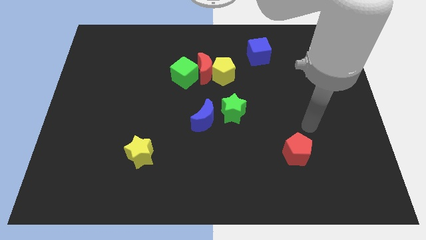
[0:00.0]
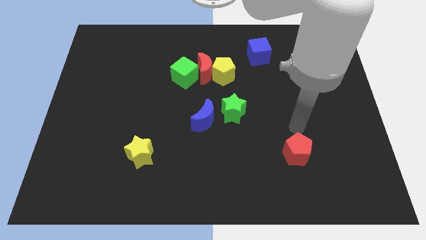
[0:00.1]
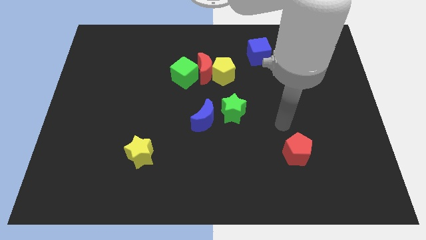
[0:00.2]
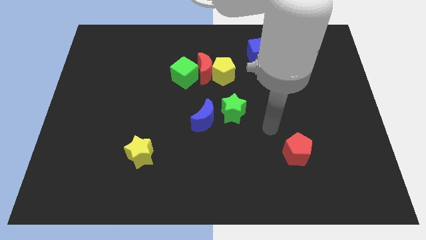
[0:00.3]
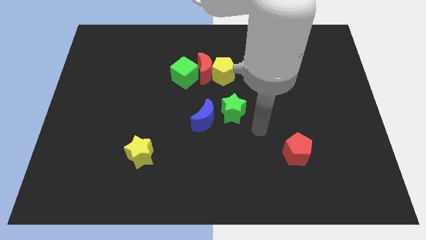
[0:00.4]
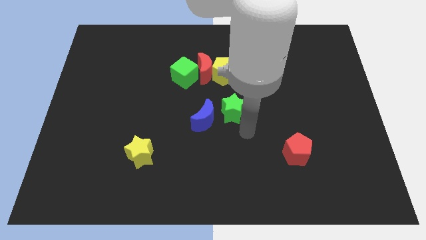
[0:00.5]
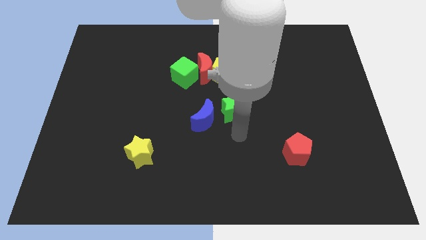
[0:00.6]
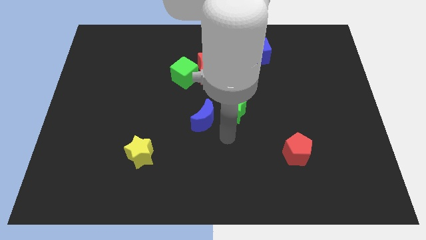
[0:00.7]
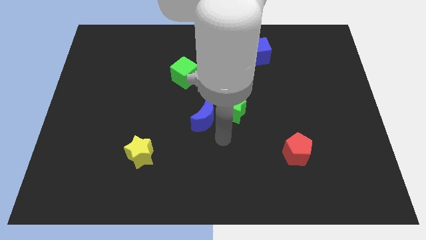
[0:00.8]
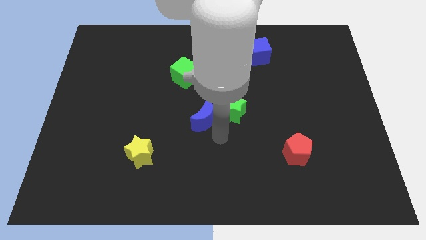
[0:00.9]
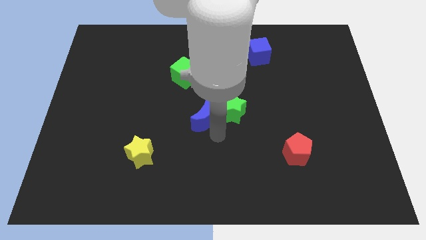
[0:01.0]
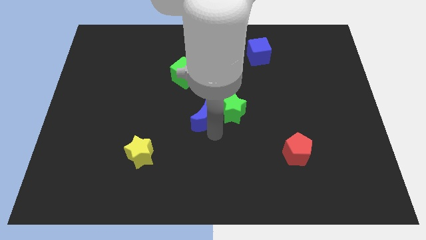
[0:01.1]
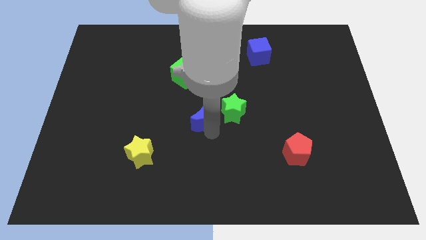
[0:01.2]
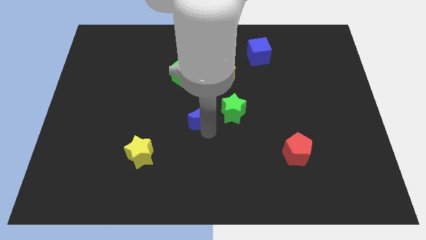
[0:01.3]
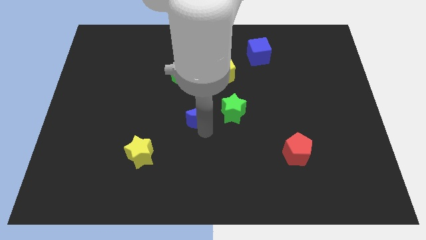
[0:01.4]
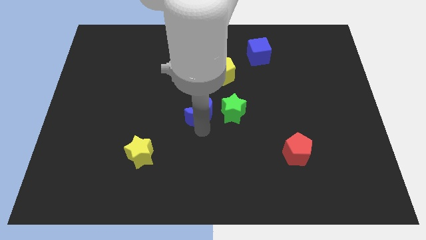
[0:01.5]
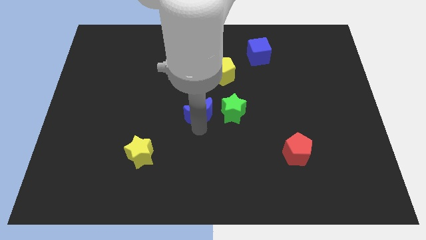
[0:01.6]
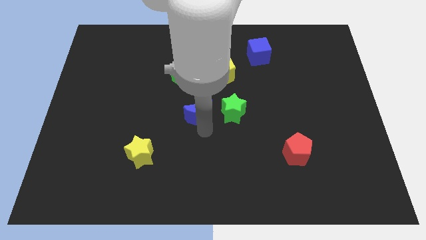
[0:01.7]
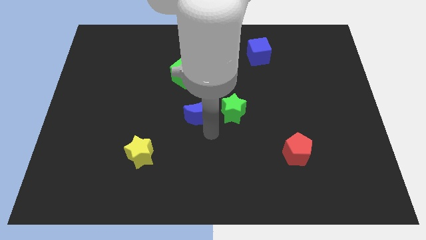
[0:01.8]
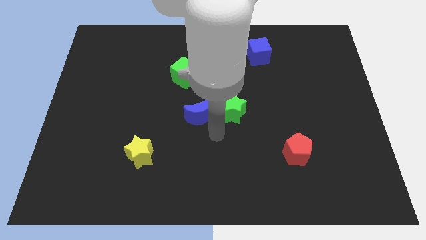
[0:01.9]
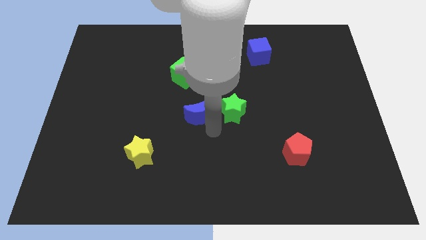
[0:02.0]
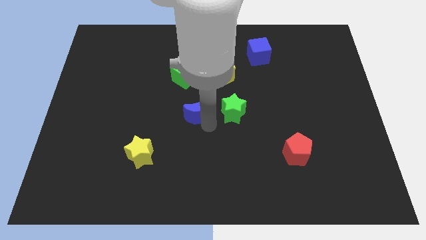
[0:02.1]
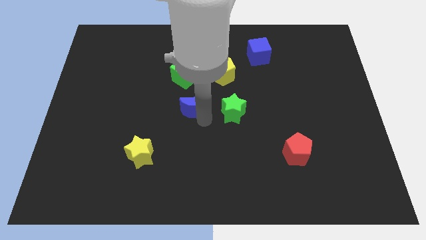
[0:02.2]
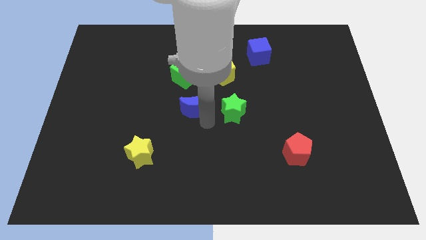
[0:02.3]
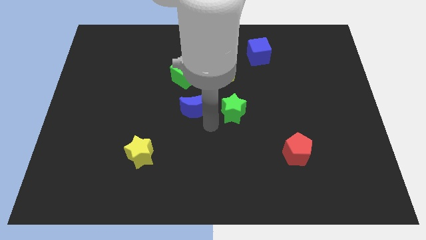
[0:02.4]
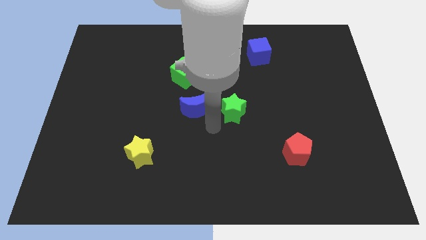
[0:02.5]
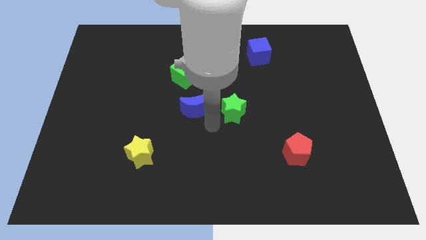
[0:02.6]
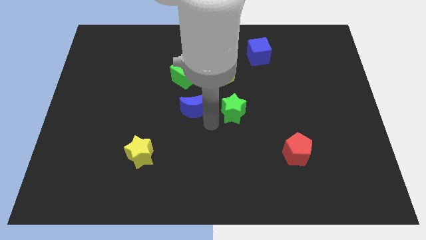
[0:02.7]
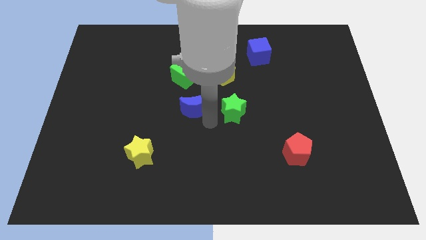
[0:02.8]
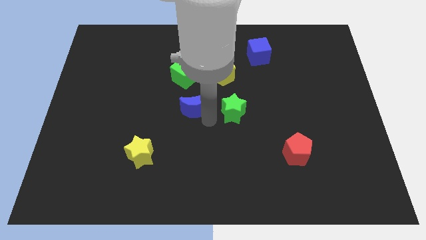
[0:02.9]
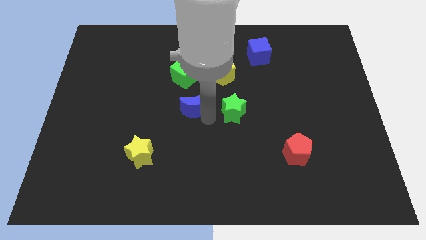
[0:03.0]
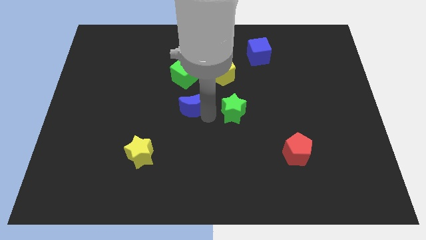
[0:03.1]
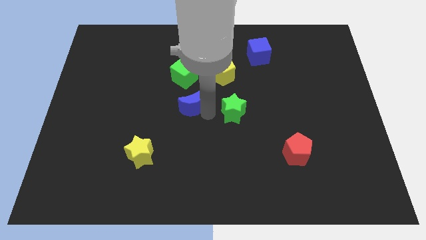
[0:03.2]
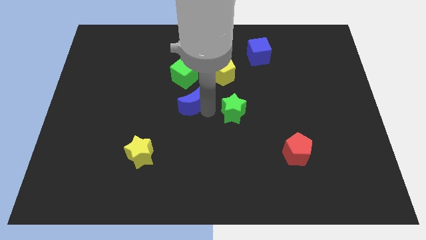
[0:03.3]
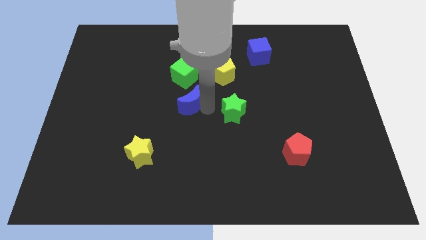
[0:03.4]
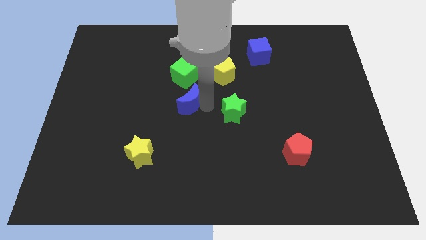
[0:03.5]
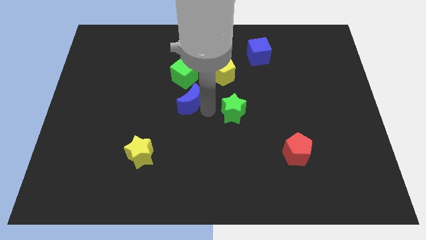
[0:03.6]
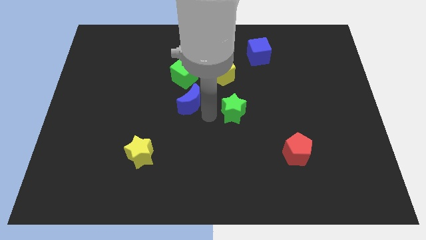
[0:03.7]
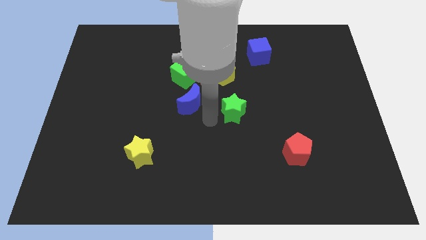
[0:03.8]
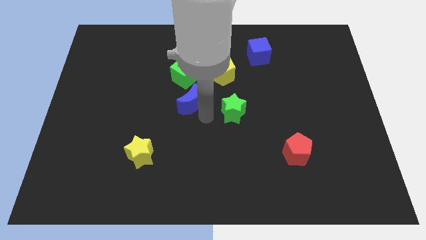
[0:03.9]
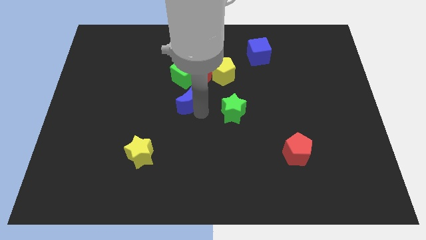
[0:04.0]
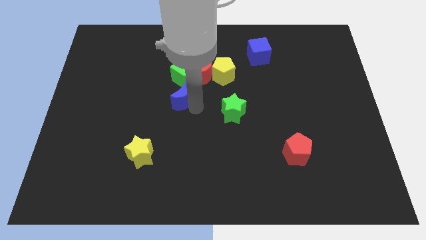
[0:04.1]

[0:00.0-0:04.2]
push the blue moon slightly upwards and then left

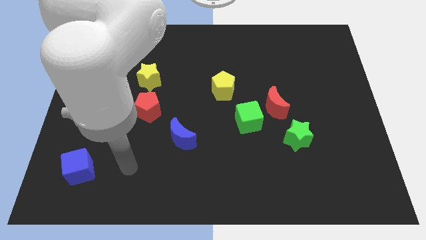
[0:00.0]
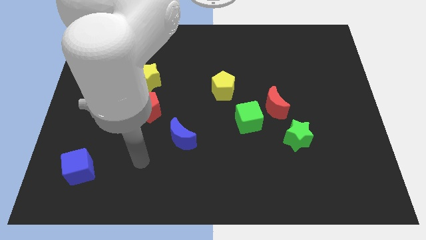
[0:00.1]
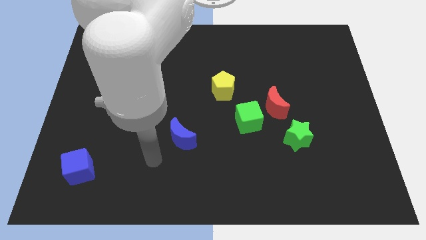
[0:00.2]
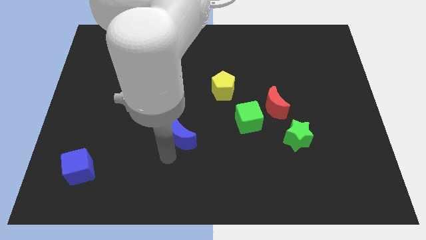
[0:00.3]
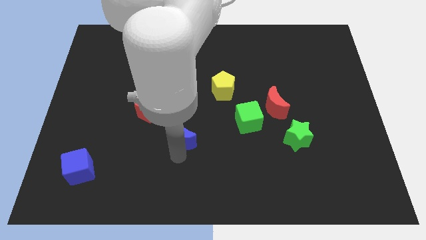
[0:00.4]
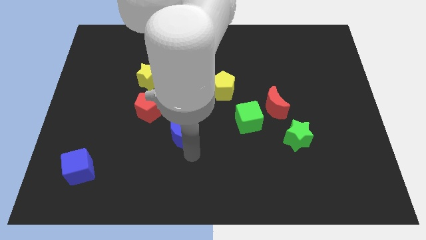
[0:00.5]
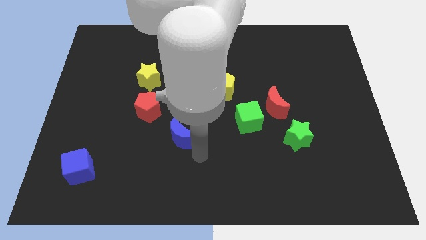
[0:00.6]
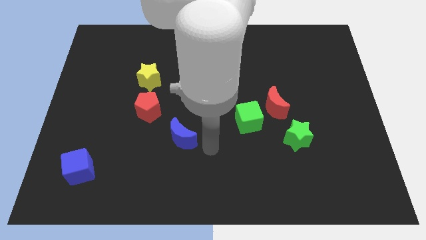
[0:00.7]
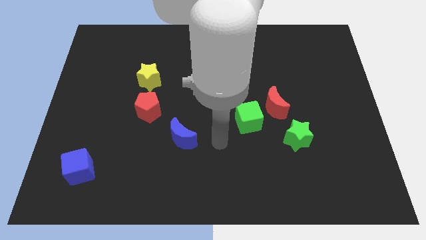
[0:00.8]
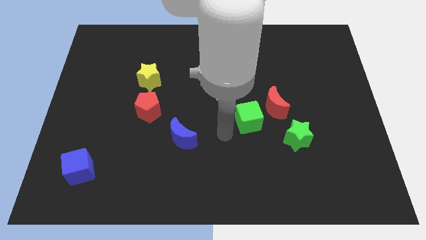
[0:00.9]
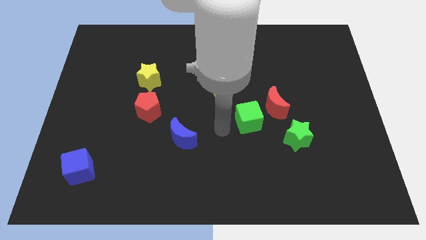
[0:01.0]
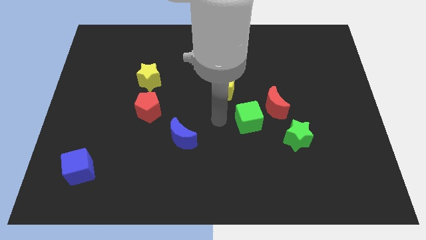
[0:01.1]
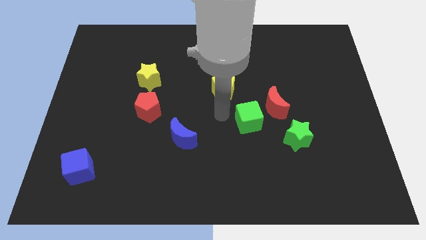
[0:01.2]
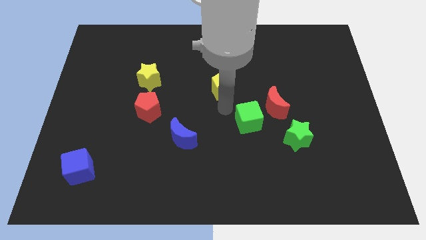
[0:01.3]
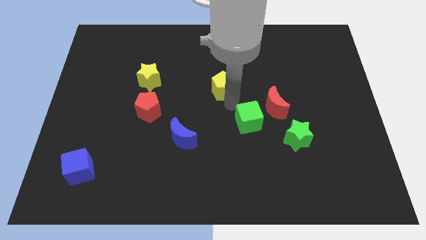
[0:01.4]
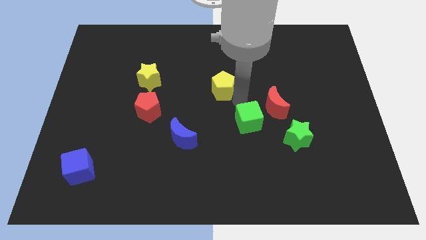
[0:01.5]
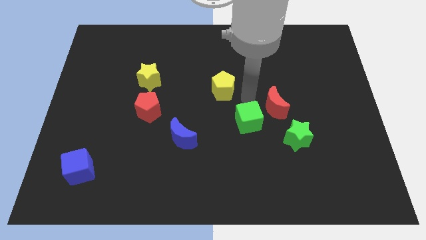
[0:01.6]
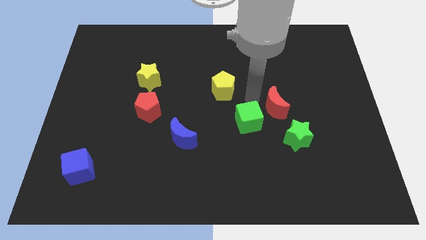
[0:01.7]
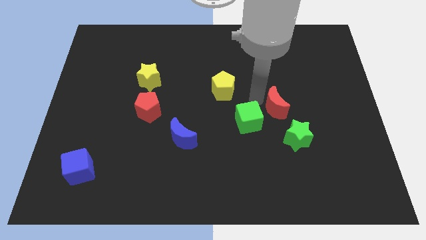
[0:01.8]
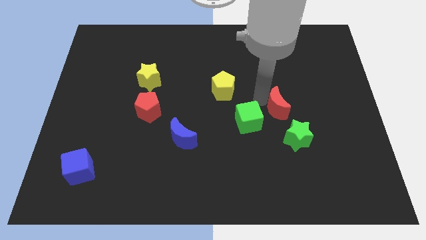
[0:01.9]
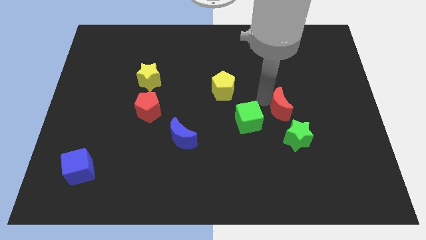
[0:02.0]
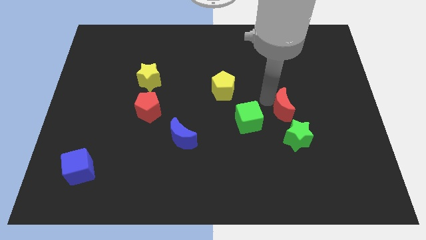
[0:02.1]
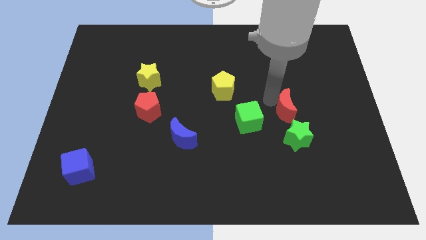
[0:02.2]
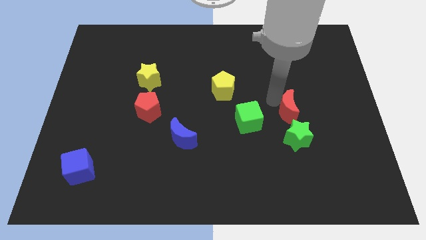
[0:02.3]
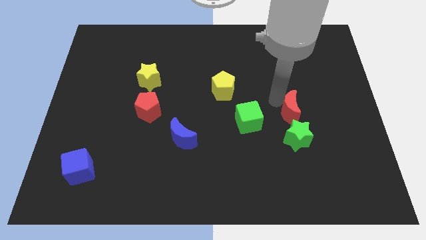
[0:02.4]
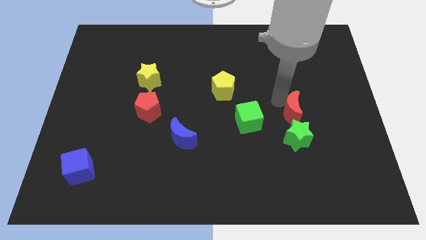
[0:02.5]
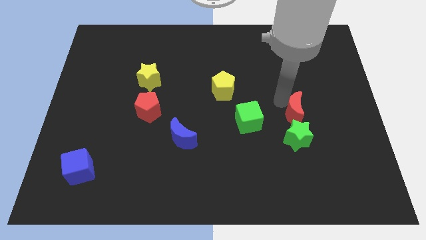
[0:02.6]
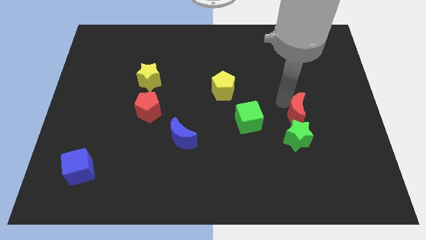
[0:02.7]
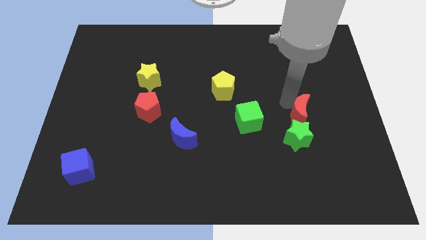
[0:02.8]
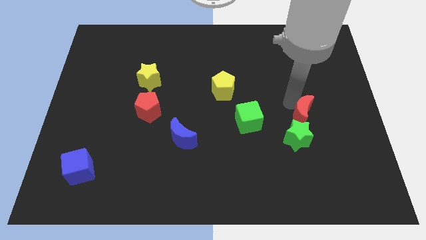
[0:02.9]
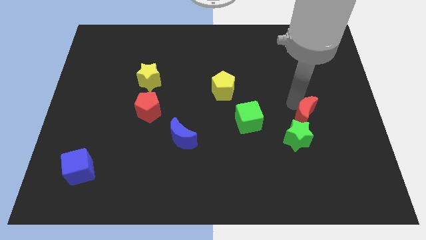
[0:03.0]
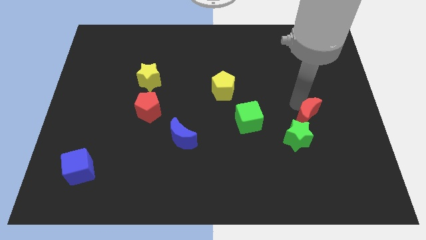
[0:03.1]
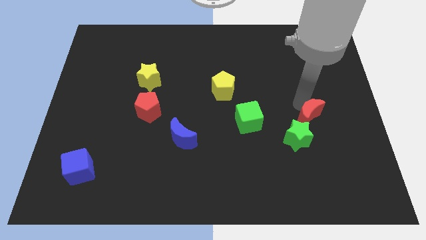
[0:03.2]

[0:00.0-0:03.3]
push the red moon slightly diagonally downwards and to the right

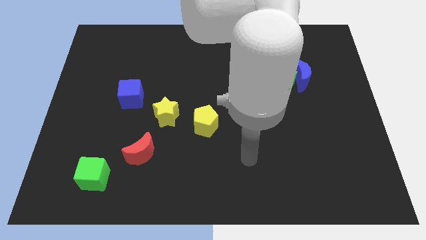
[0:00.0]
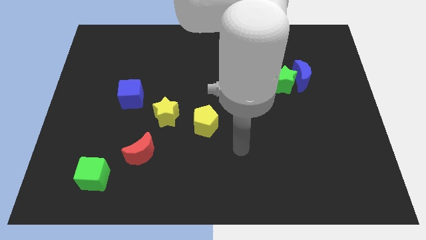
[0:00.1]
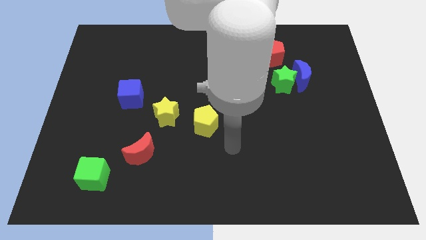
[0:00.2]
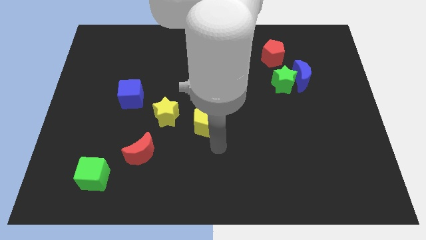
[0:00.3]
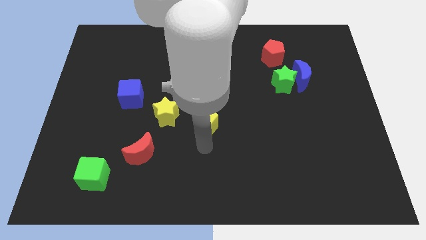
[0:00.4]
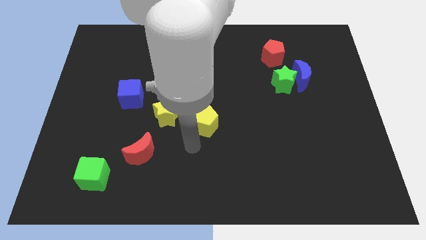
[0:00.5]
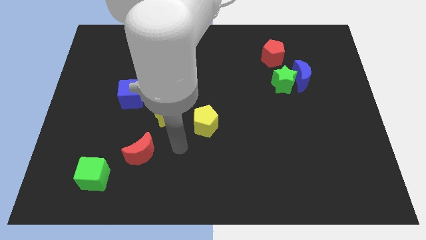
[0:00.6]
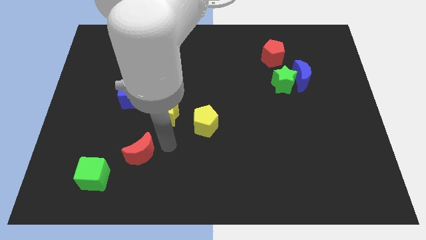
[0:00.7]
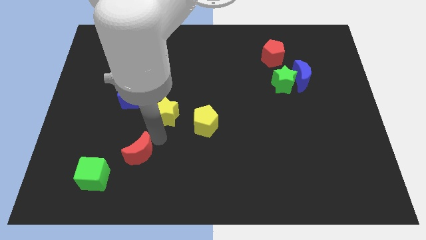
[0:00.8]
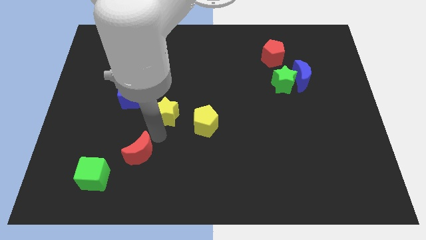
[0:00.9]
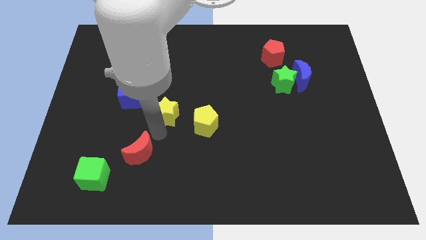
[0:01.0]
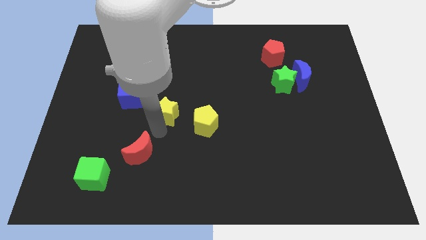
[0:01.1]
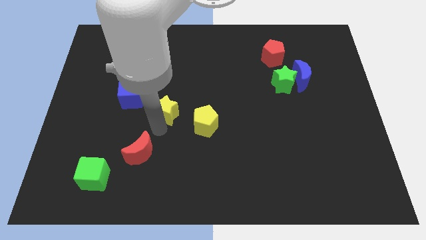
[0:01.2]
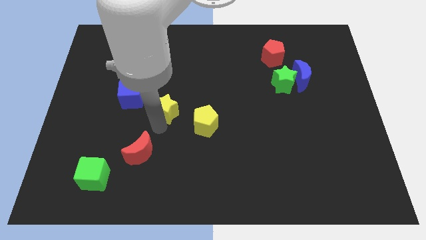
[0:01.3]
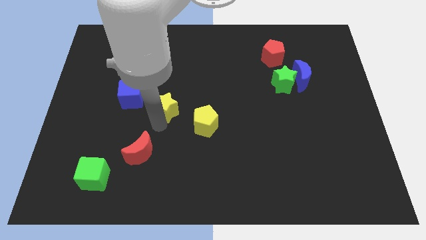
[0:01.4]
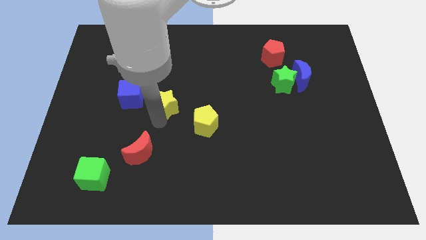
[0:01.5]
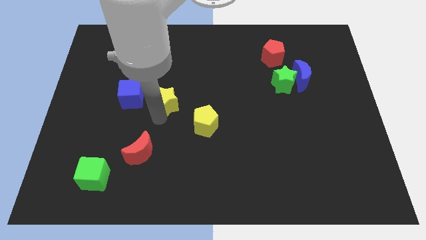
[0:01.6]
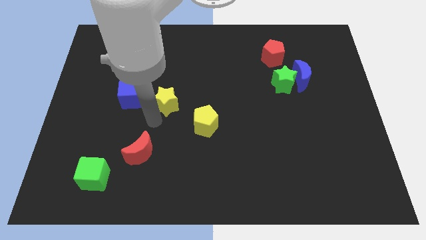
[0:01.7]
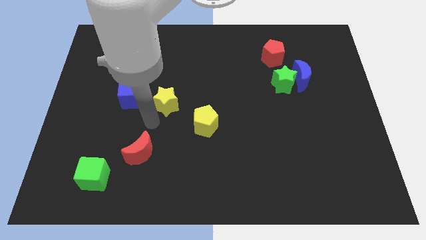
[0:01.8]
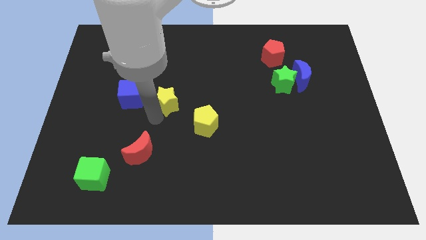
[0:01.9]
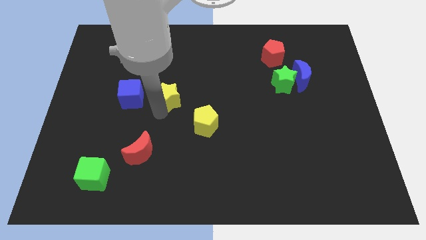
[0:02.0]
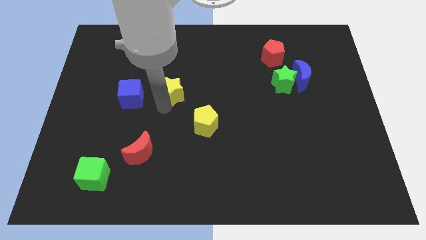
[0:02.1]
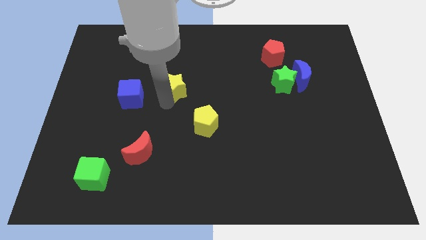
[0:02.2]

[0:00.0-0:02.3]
push the yellow star slightly up
